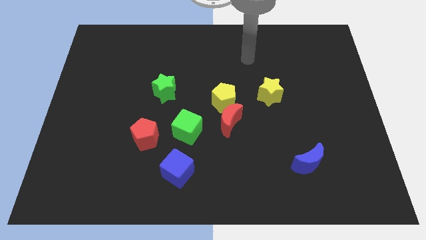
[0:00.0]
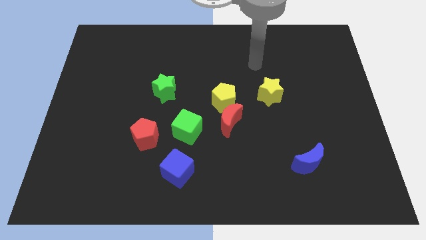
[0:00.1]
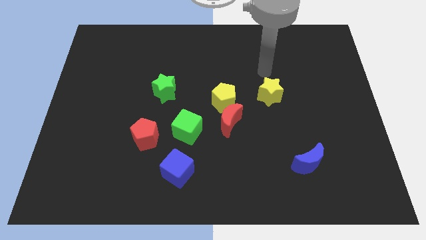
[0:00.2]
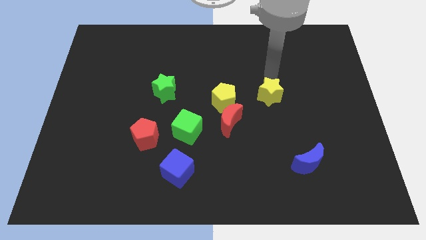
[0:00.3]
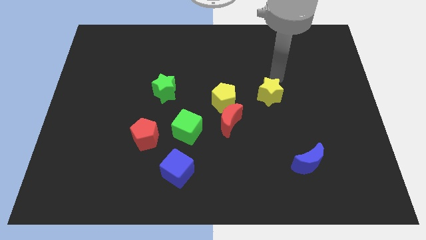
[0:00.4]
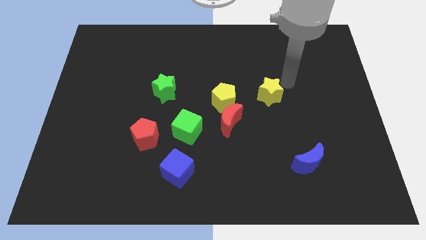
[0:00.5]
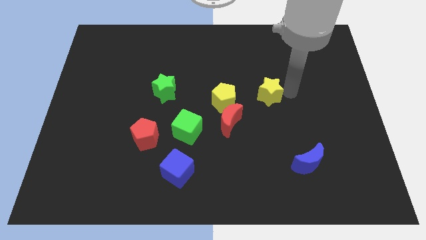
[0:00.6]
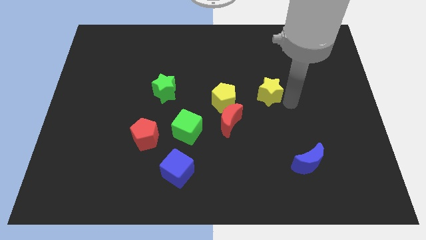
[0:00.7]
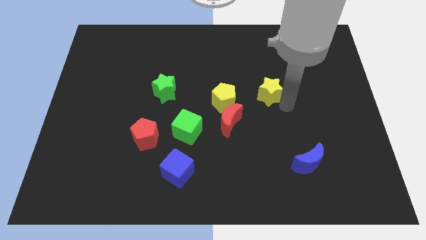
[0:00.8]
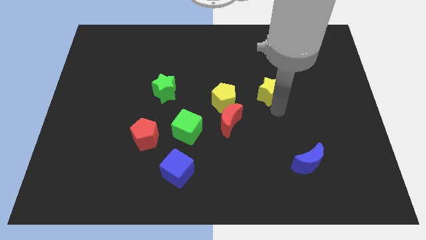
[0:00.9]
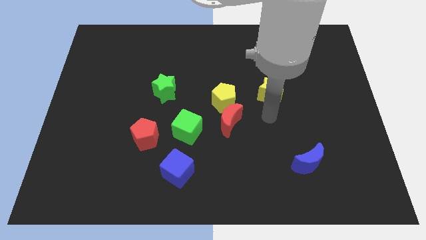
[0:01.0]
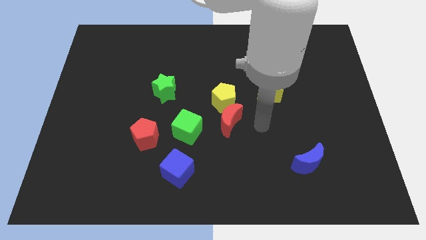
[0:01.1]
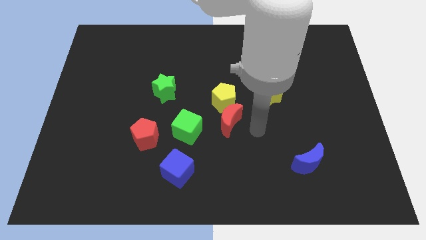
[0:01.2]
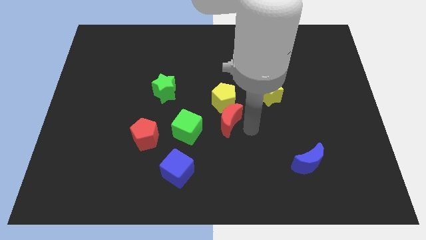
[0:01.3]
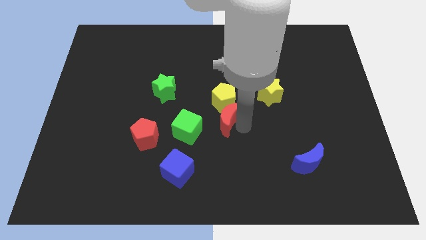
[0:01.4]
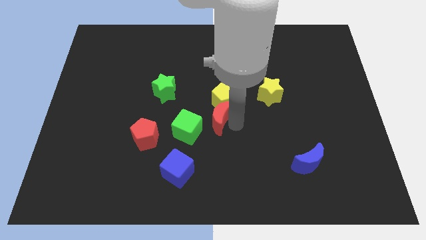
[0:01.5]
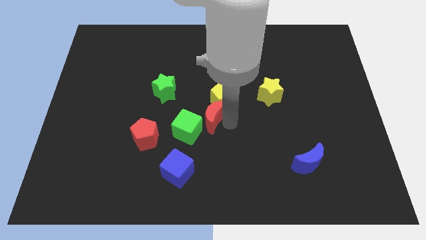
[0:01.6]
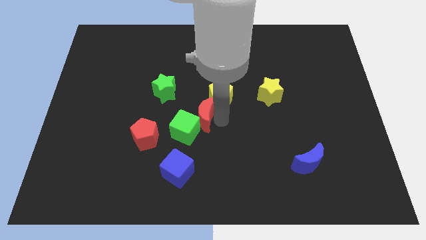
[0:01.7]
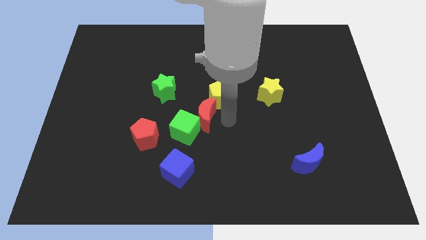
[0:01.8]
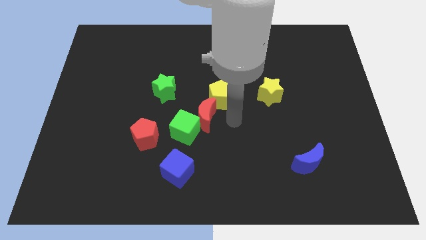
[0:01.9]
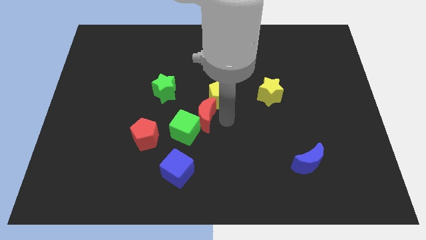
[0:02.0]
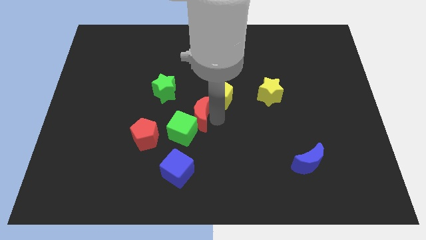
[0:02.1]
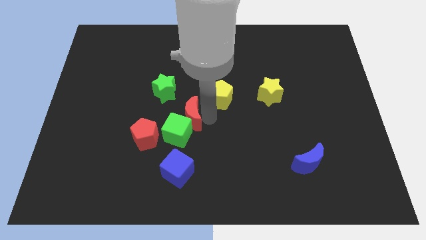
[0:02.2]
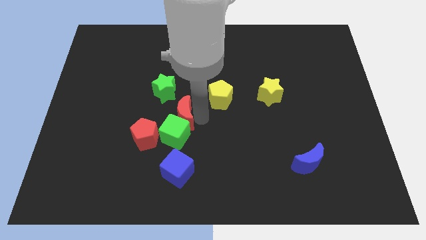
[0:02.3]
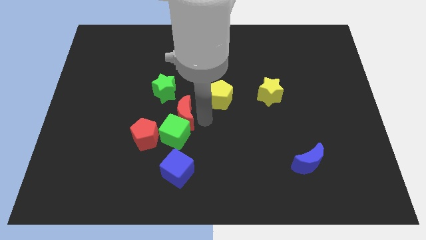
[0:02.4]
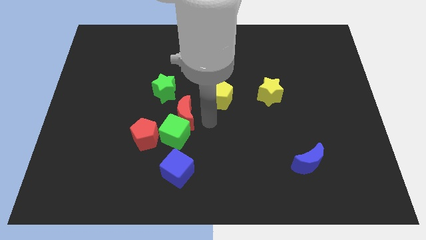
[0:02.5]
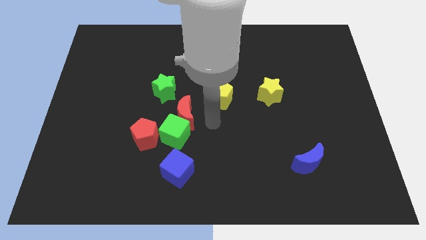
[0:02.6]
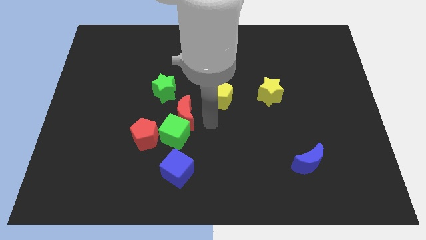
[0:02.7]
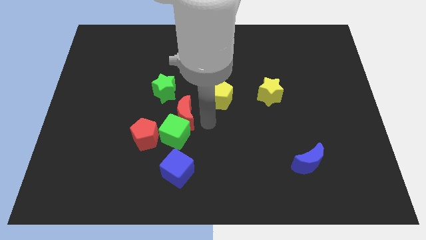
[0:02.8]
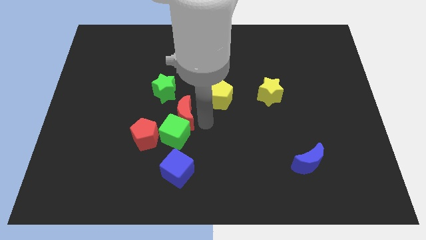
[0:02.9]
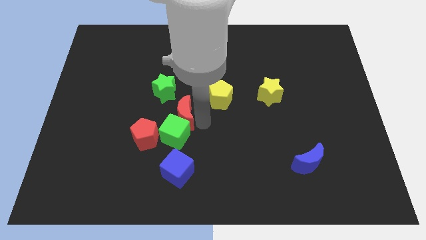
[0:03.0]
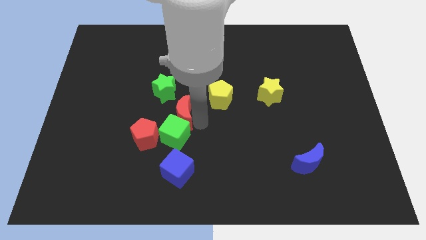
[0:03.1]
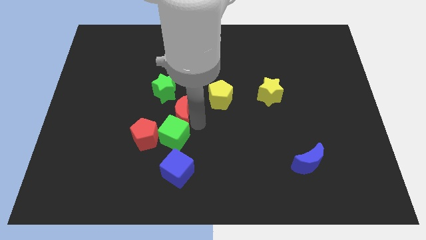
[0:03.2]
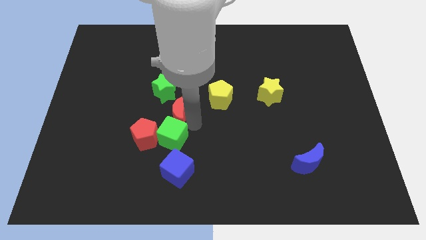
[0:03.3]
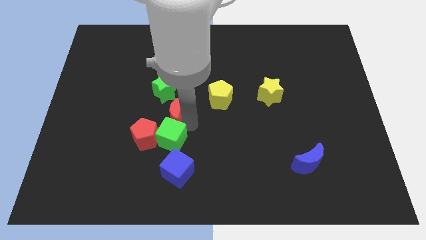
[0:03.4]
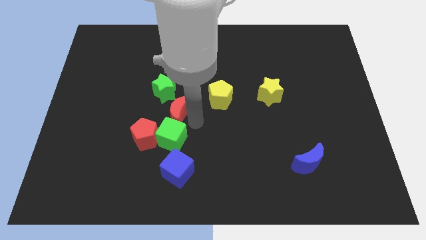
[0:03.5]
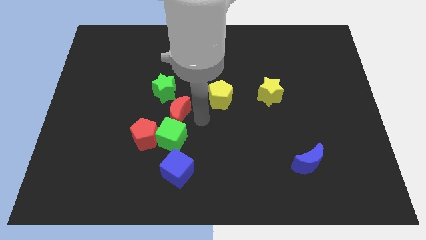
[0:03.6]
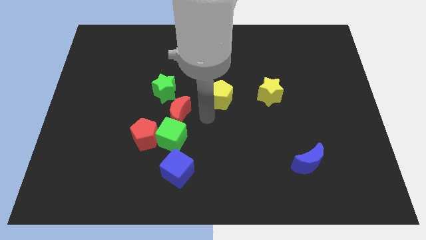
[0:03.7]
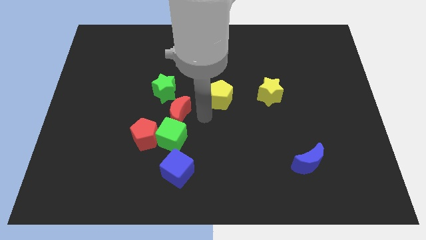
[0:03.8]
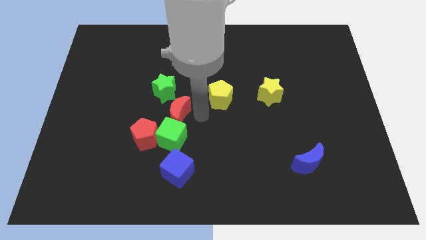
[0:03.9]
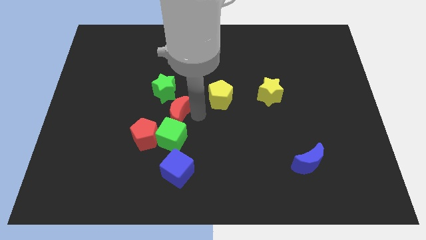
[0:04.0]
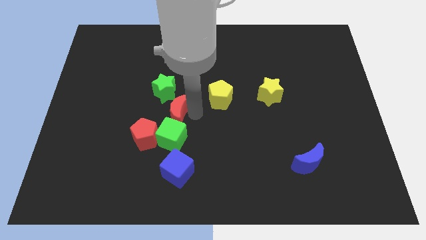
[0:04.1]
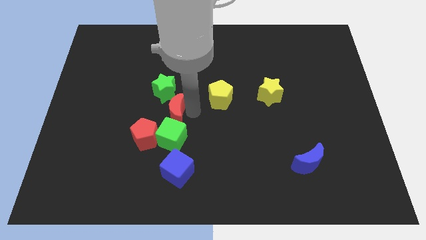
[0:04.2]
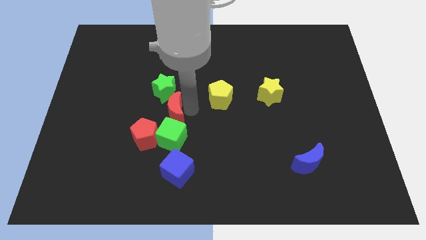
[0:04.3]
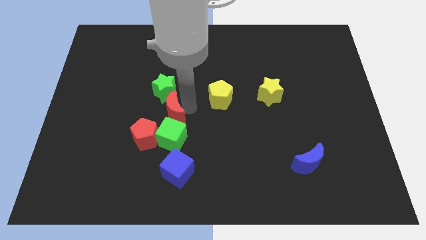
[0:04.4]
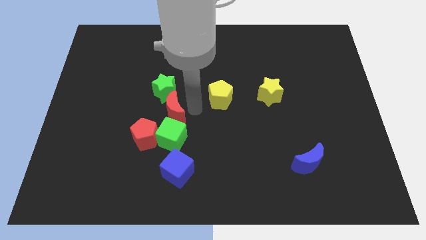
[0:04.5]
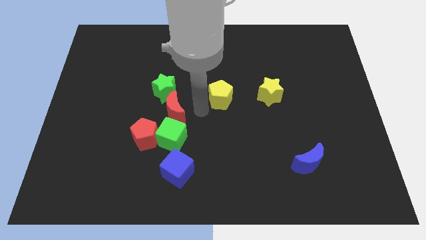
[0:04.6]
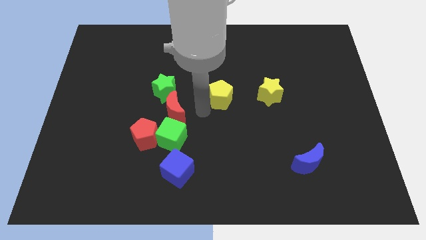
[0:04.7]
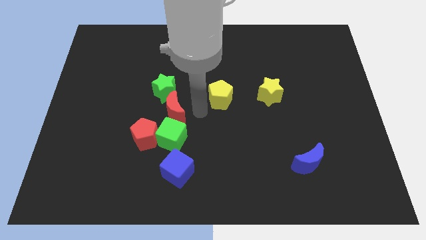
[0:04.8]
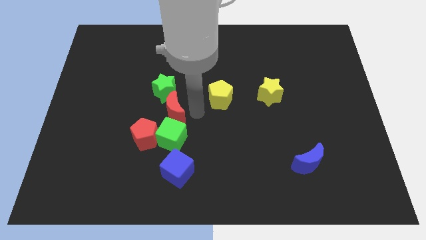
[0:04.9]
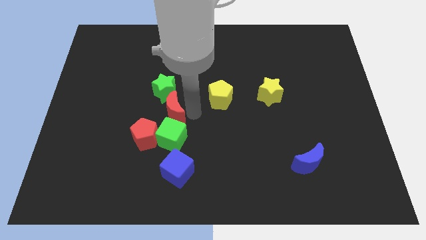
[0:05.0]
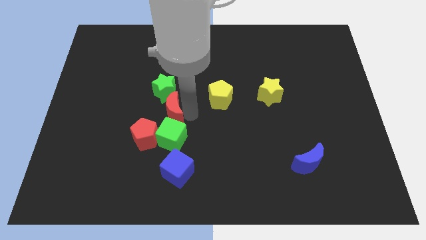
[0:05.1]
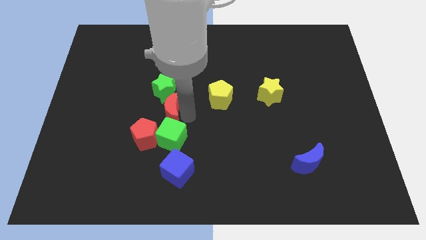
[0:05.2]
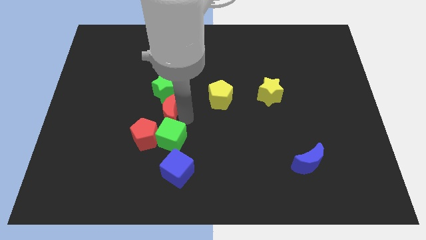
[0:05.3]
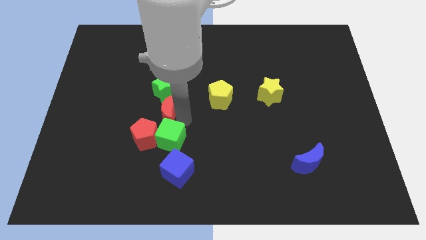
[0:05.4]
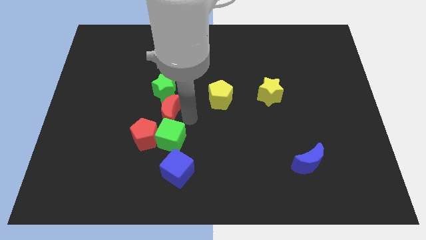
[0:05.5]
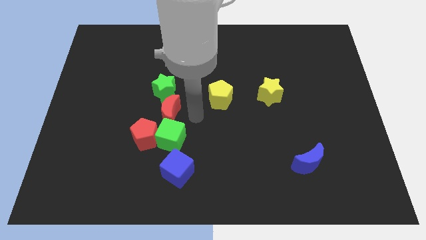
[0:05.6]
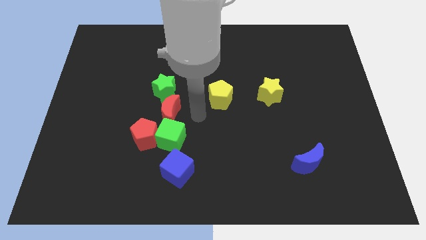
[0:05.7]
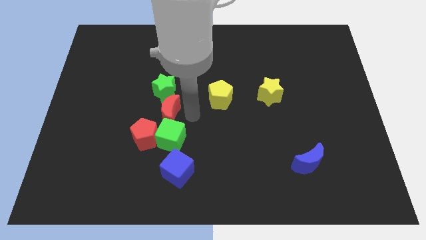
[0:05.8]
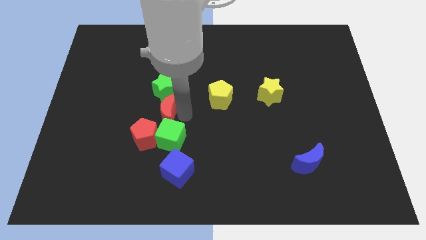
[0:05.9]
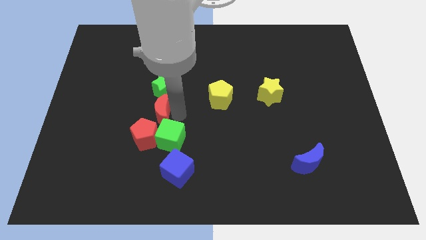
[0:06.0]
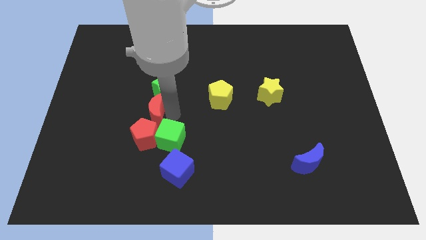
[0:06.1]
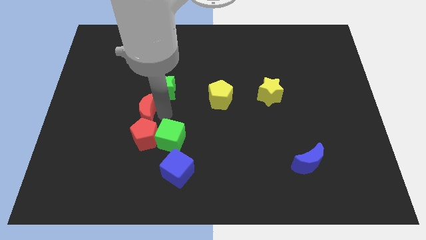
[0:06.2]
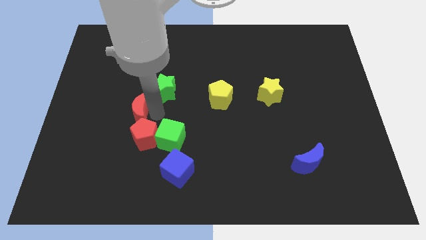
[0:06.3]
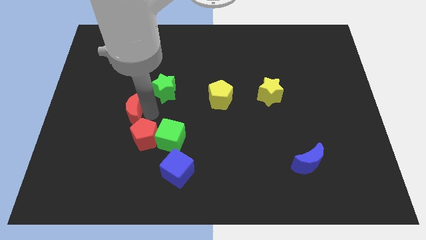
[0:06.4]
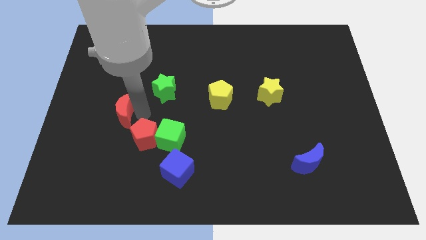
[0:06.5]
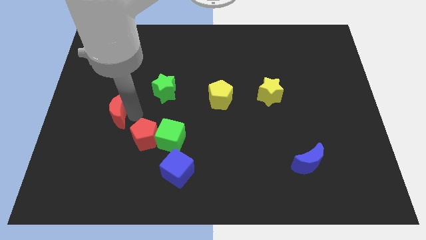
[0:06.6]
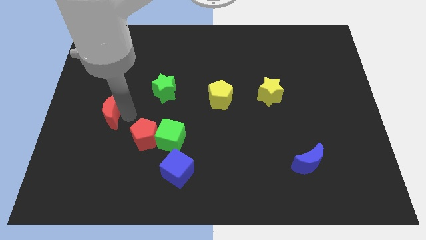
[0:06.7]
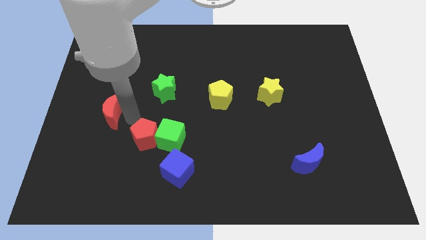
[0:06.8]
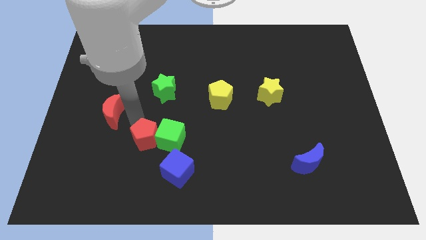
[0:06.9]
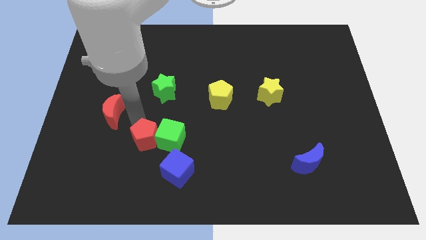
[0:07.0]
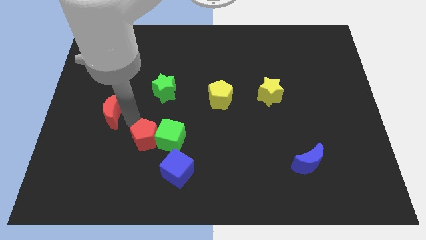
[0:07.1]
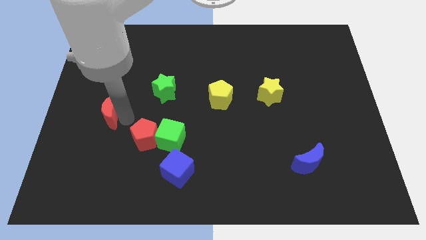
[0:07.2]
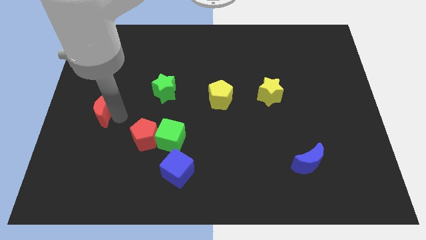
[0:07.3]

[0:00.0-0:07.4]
slide the red moon to the left side of the board
